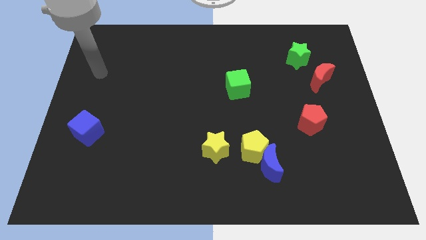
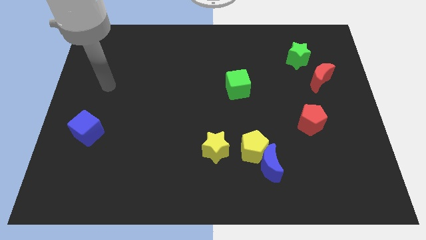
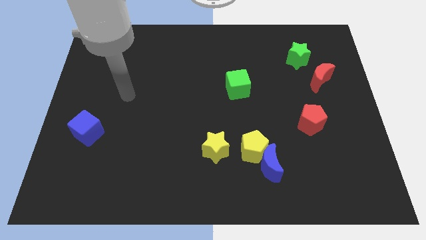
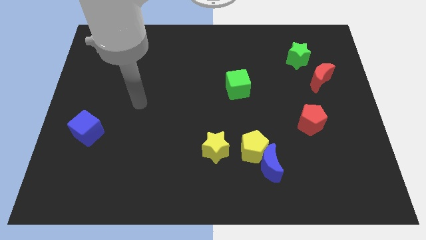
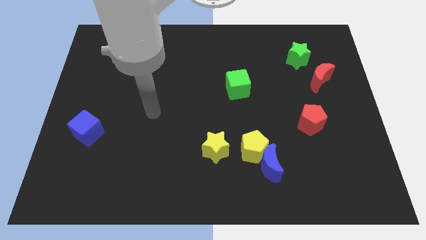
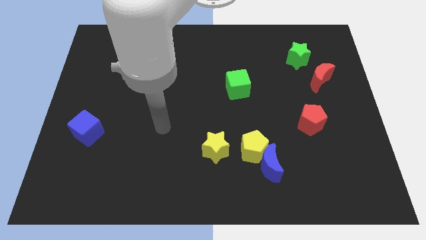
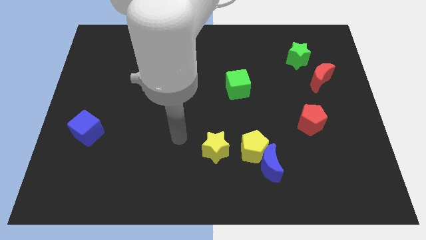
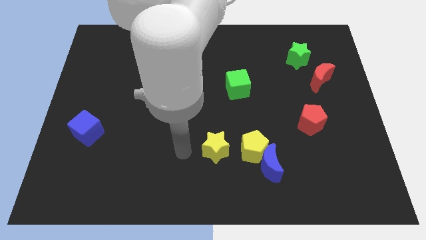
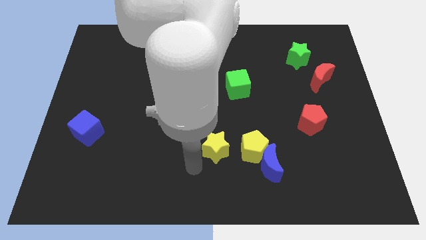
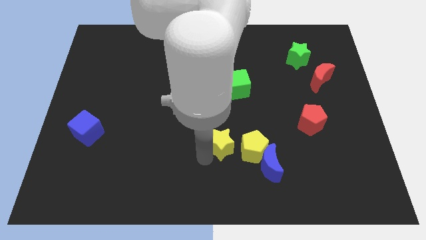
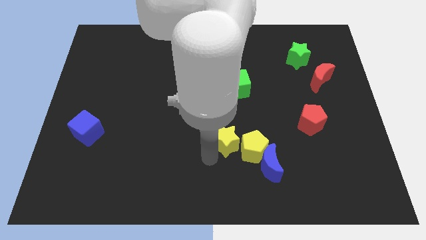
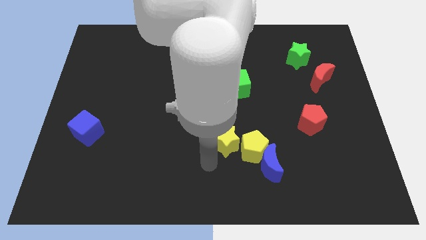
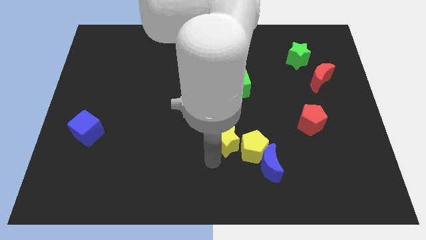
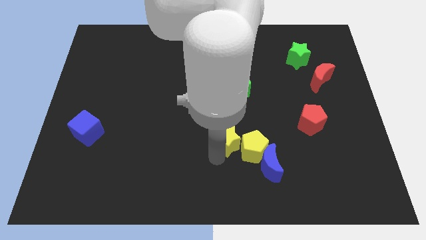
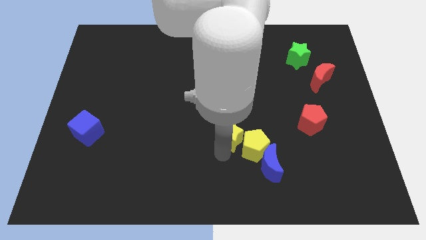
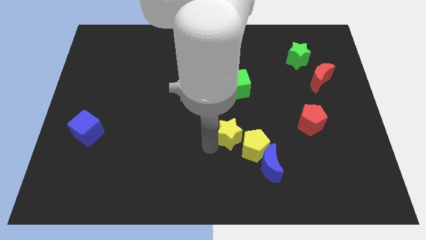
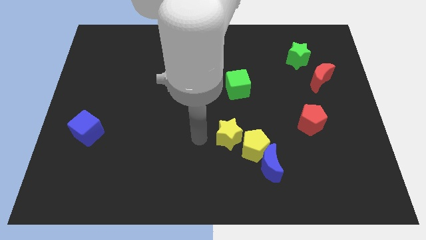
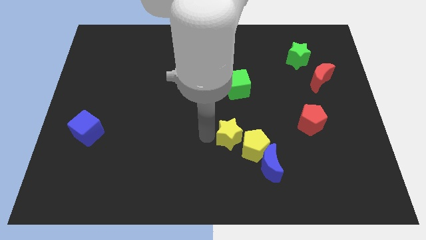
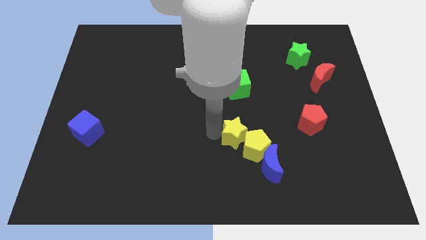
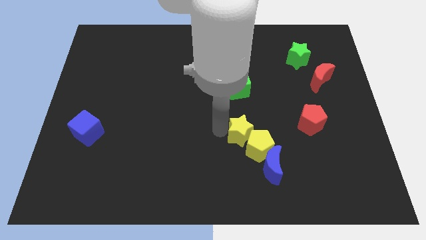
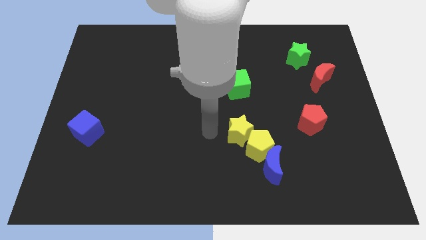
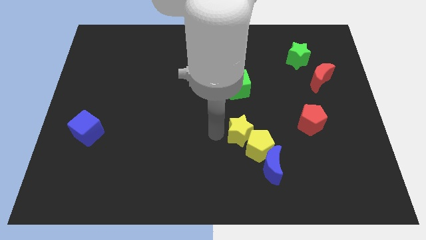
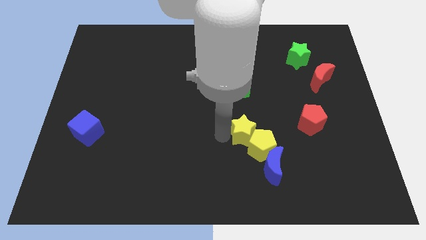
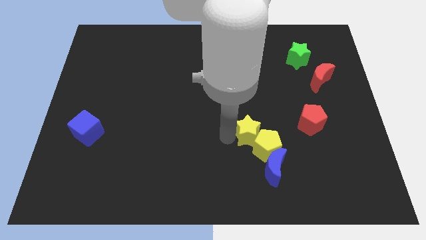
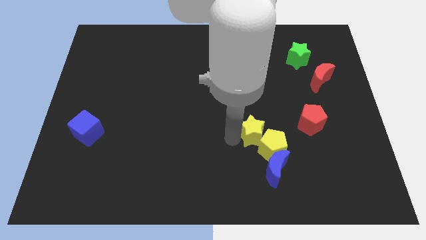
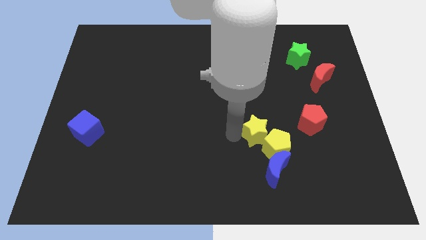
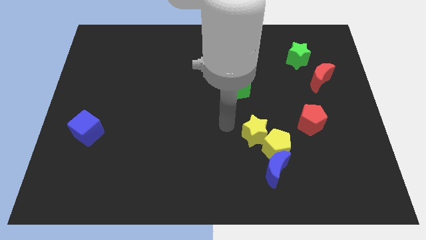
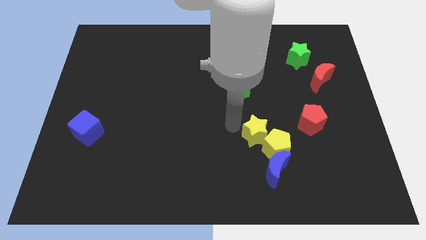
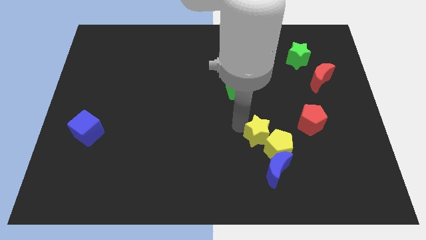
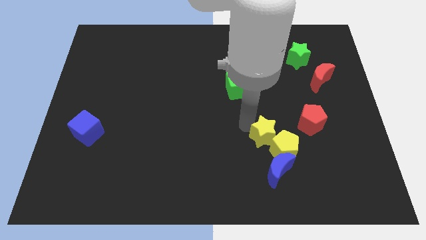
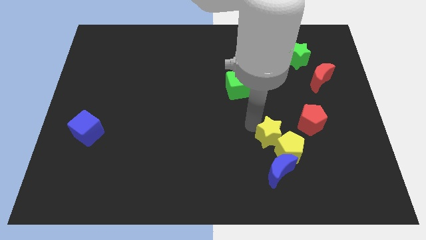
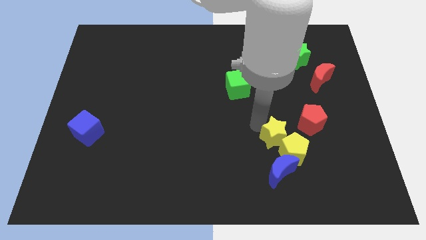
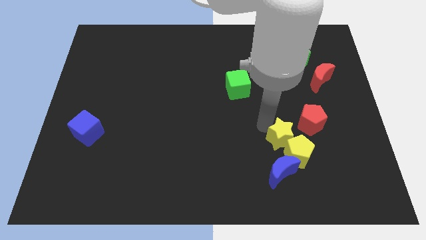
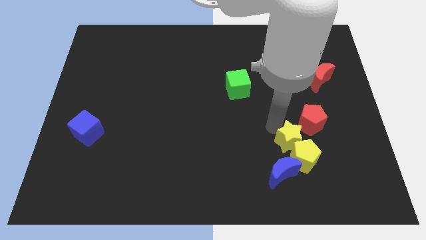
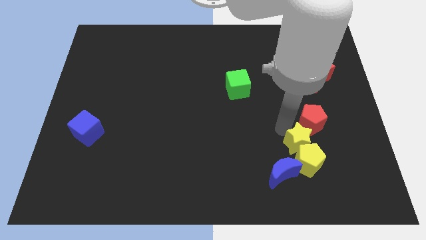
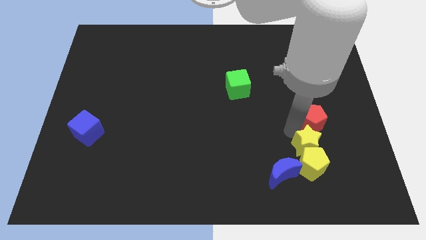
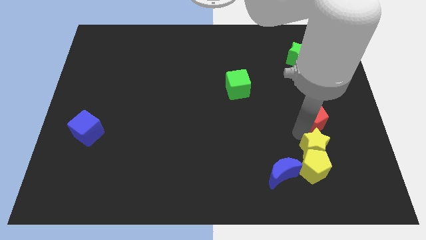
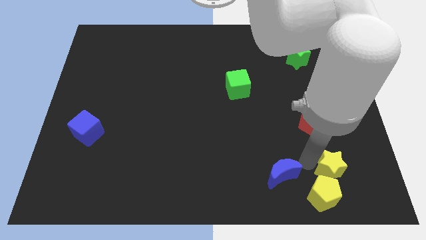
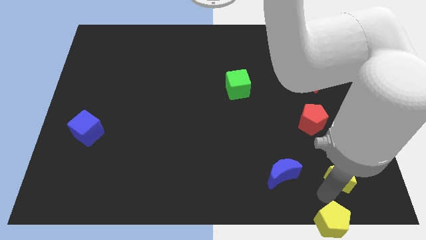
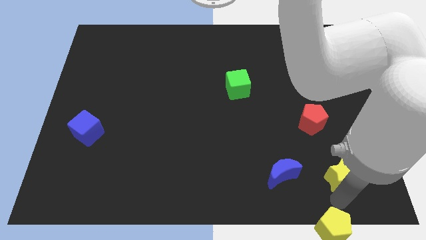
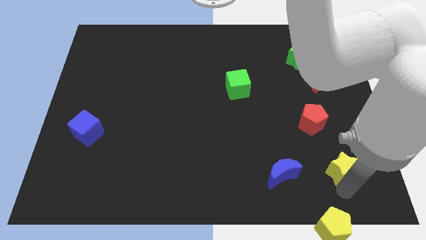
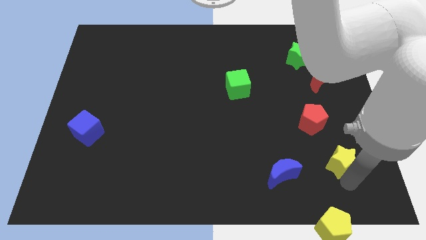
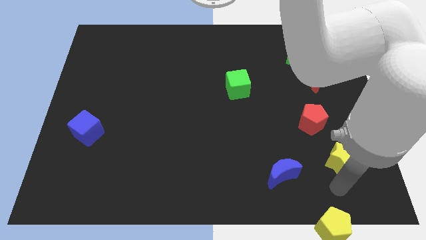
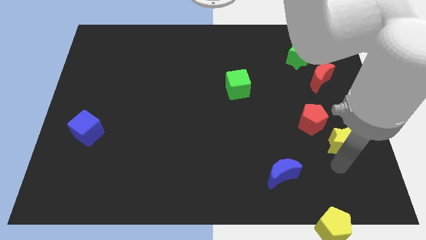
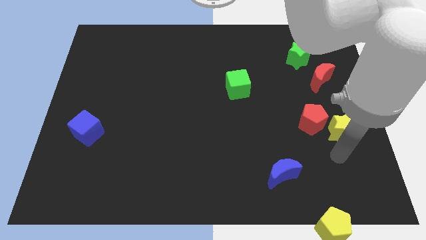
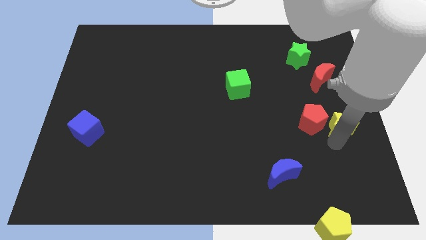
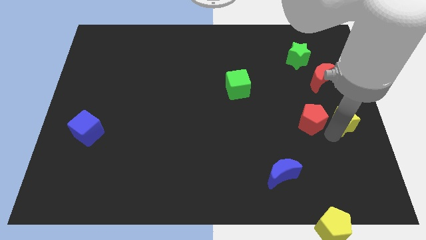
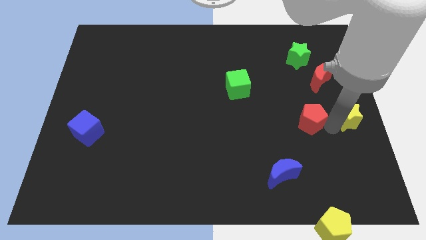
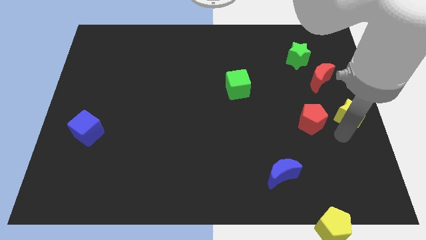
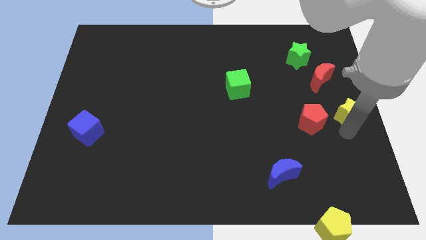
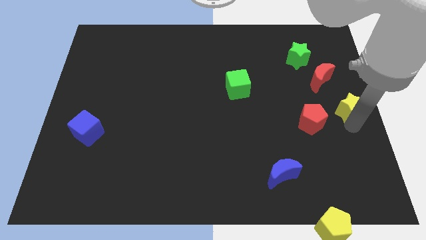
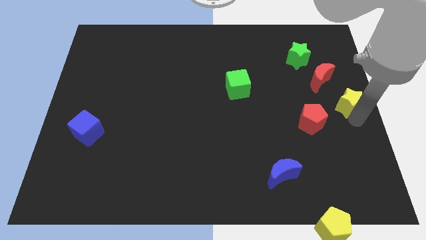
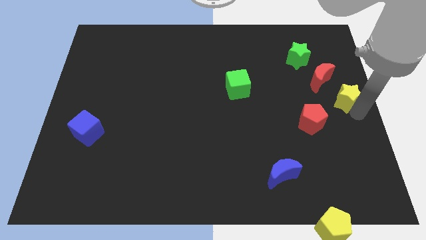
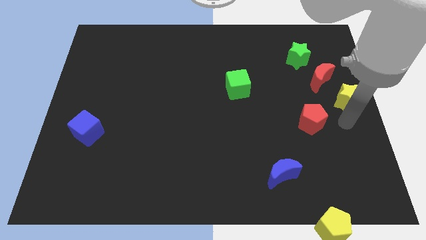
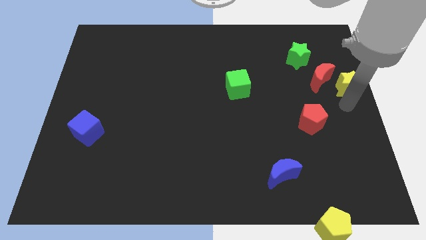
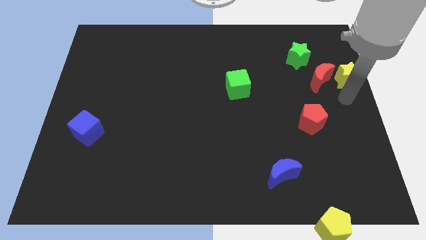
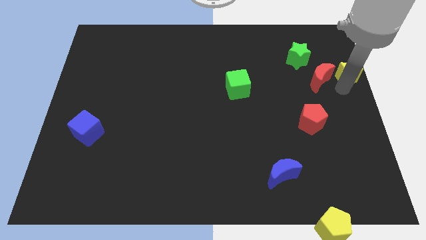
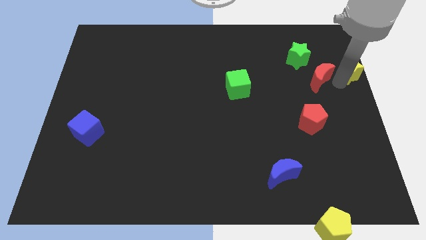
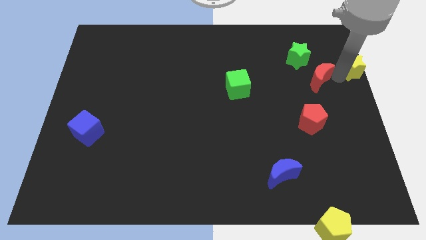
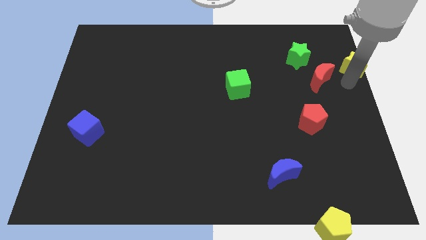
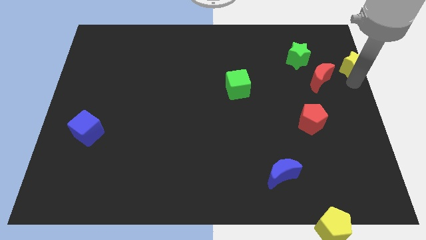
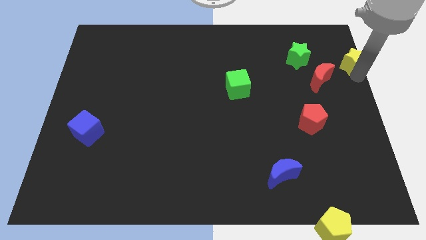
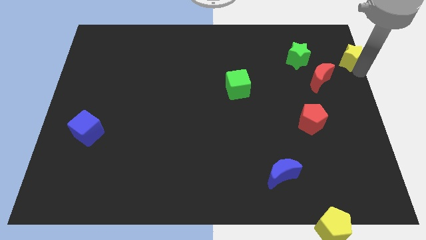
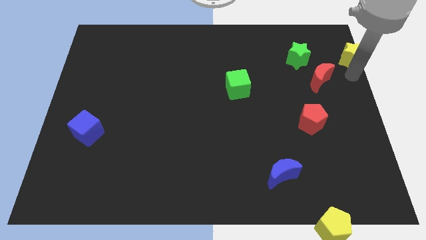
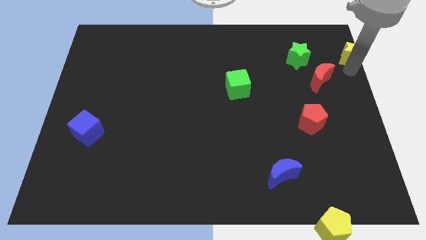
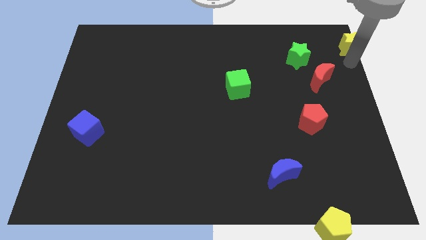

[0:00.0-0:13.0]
slide the yellow star to the upper right corner
